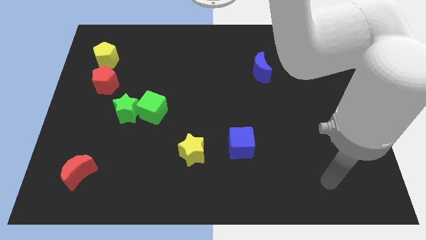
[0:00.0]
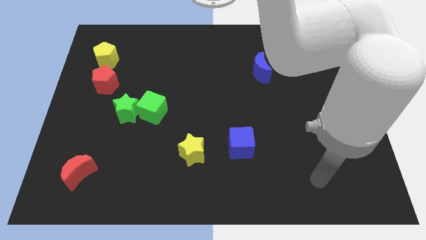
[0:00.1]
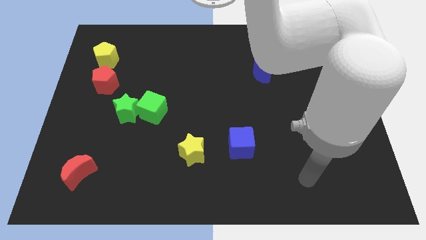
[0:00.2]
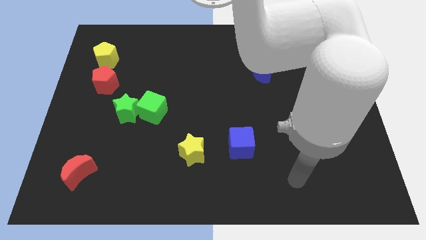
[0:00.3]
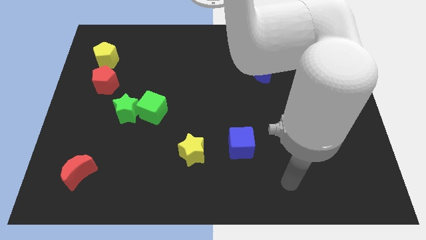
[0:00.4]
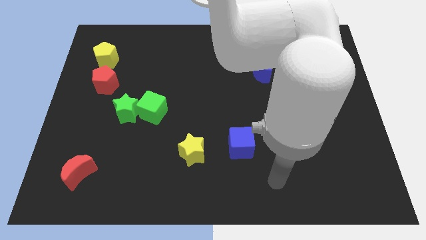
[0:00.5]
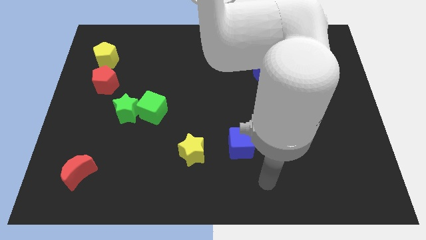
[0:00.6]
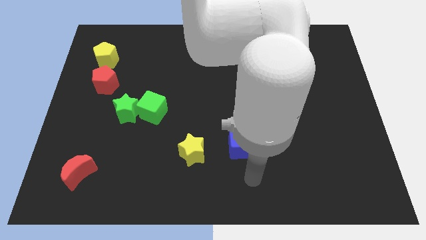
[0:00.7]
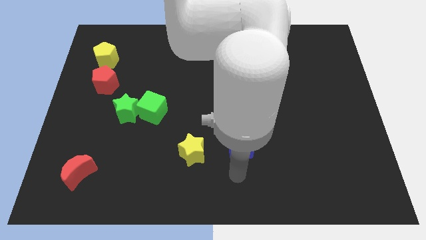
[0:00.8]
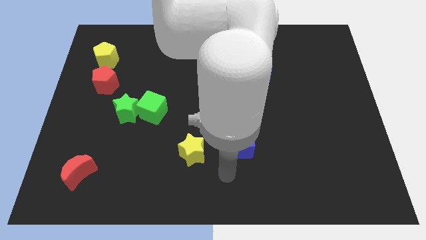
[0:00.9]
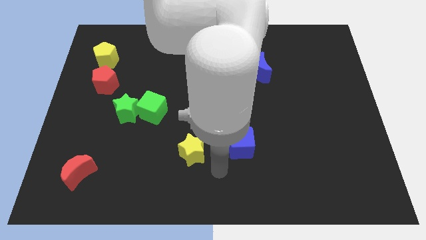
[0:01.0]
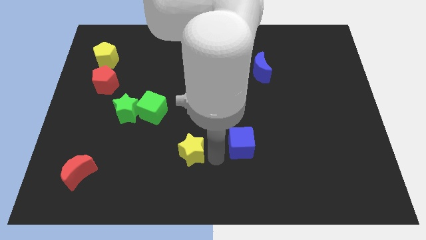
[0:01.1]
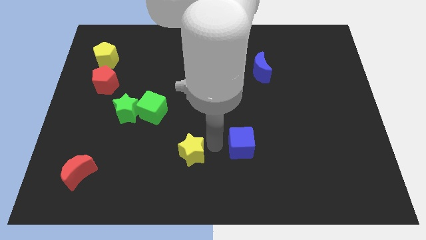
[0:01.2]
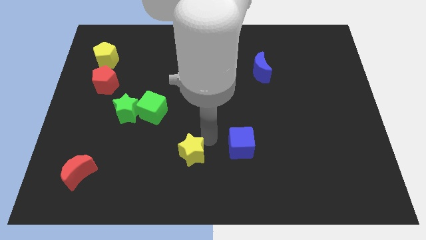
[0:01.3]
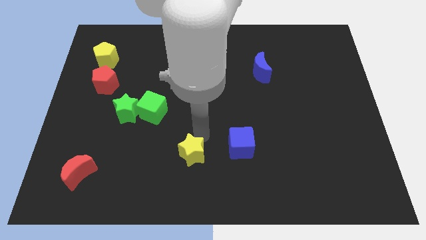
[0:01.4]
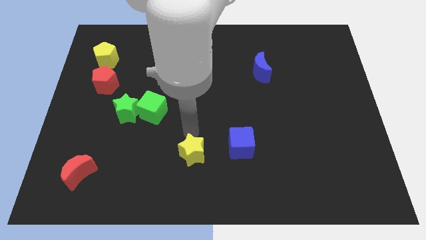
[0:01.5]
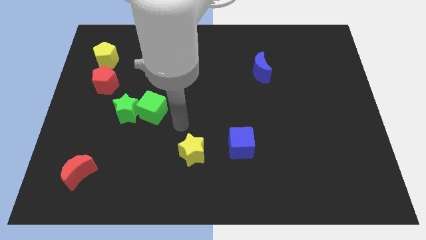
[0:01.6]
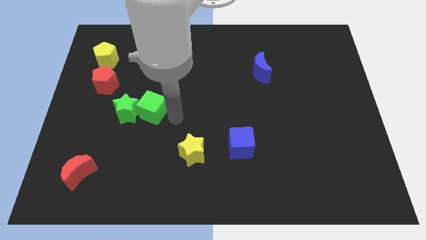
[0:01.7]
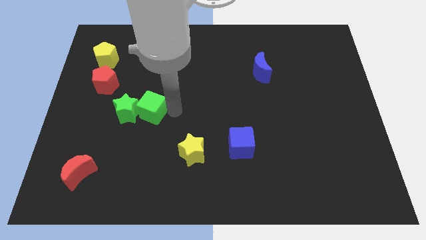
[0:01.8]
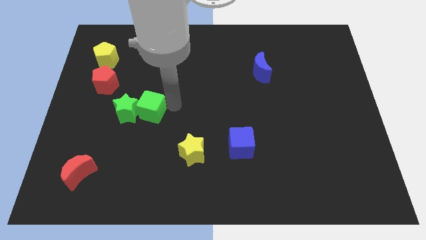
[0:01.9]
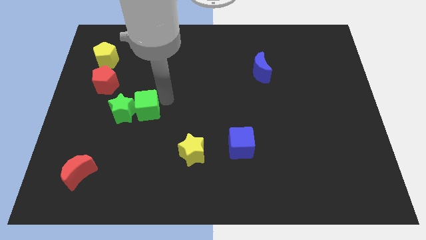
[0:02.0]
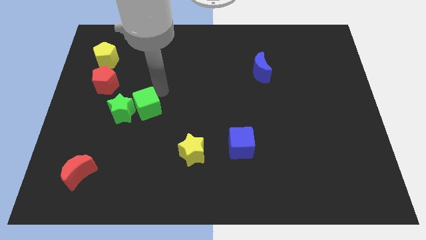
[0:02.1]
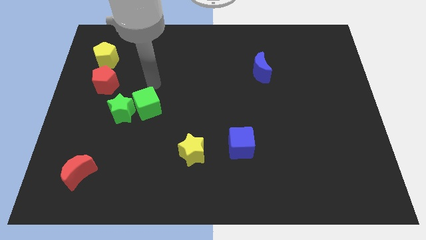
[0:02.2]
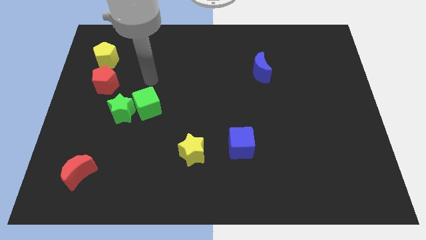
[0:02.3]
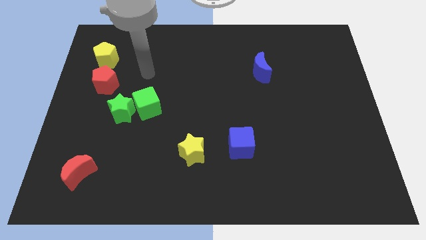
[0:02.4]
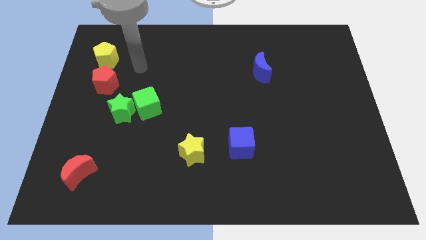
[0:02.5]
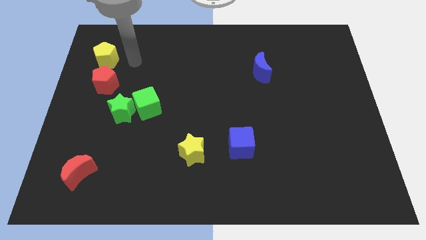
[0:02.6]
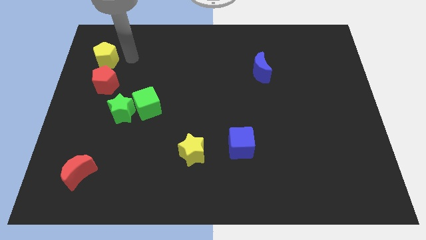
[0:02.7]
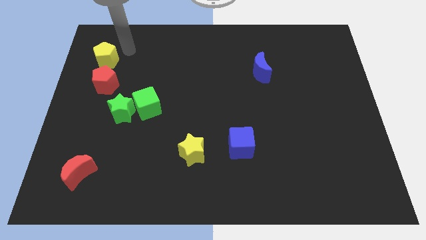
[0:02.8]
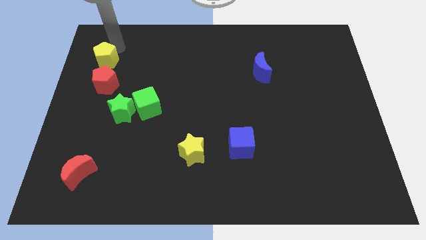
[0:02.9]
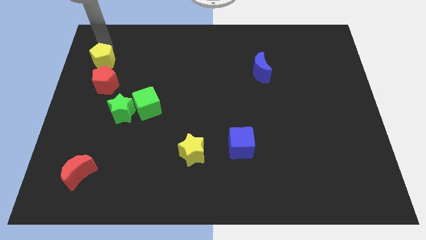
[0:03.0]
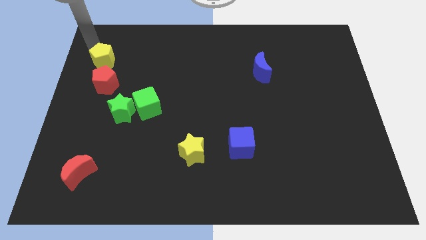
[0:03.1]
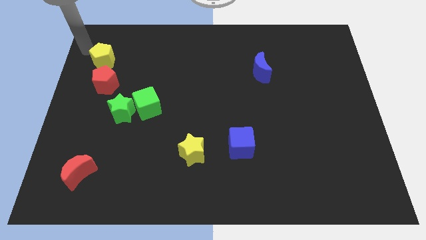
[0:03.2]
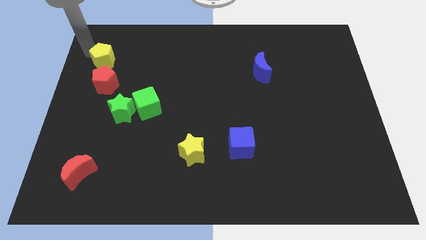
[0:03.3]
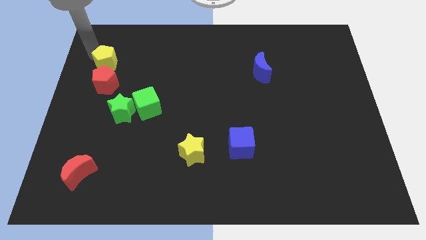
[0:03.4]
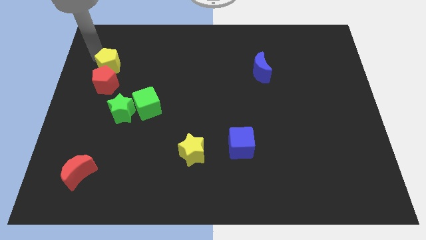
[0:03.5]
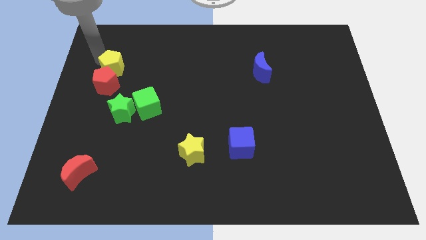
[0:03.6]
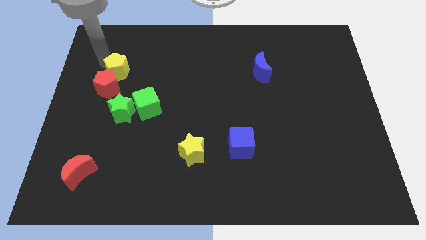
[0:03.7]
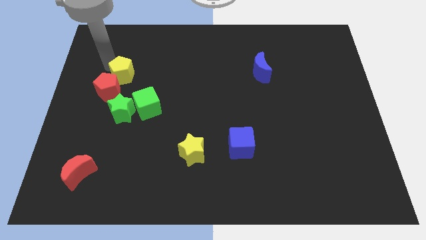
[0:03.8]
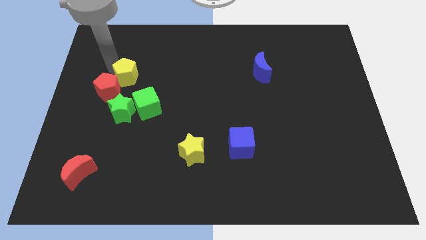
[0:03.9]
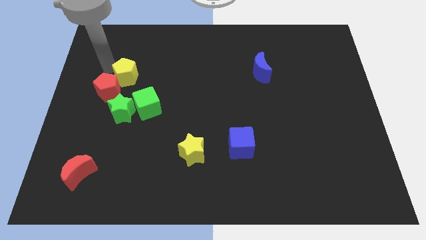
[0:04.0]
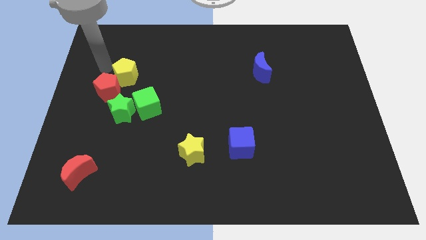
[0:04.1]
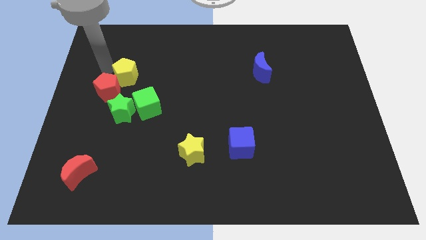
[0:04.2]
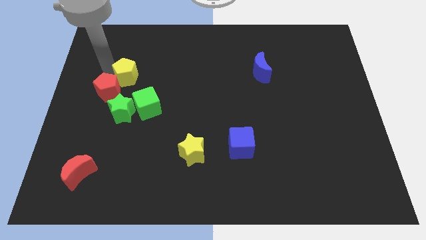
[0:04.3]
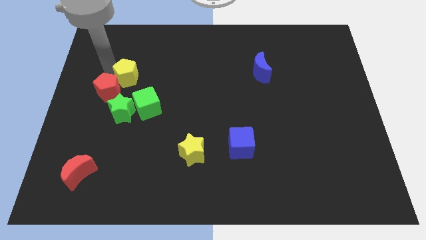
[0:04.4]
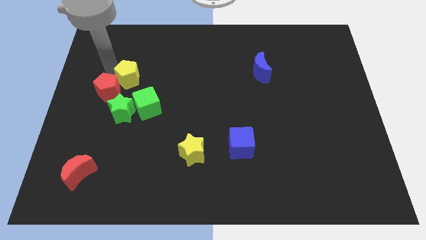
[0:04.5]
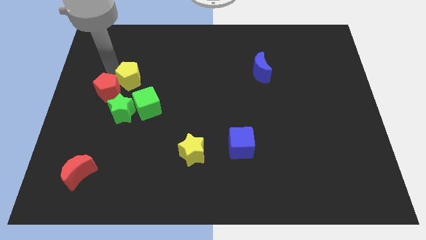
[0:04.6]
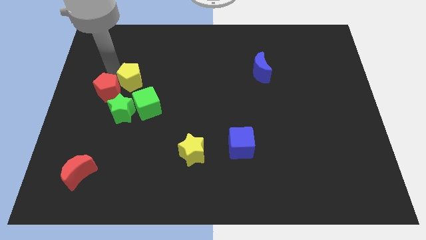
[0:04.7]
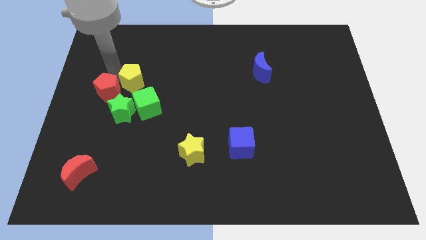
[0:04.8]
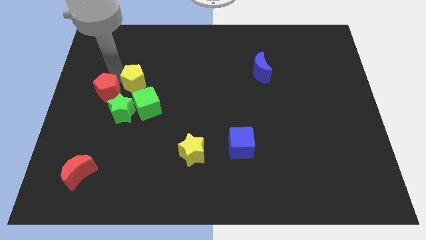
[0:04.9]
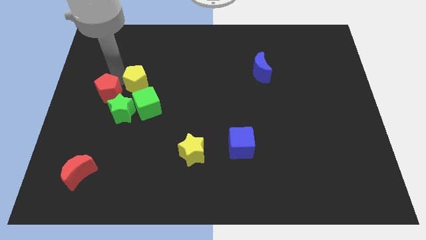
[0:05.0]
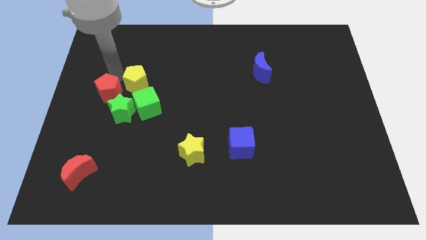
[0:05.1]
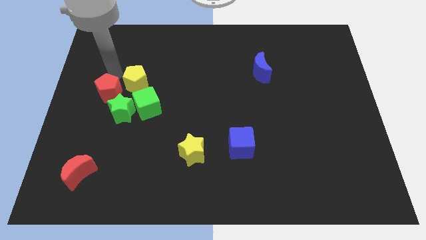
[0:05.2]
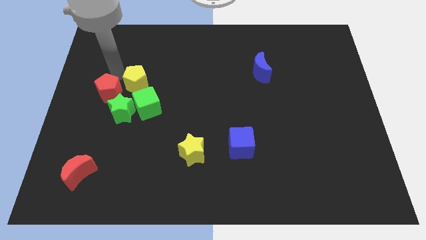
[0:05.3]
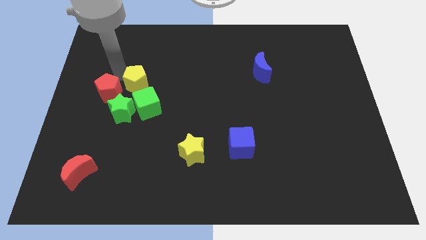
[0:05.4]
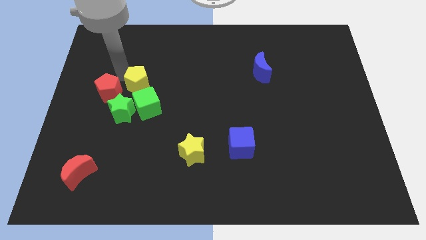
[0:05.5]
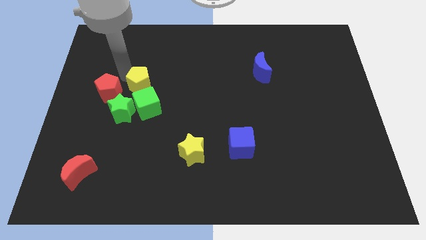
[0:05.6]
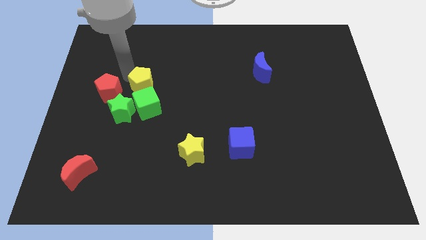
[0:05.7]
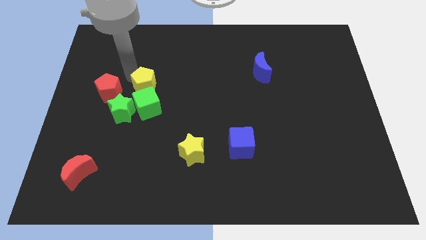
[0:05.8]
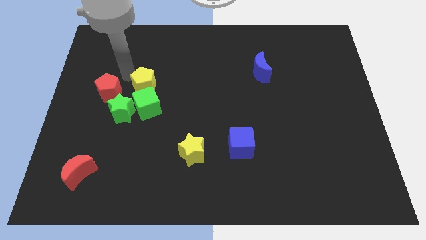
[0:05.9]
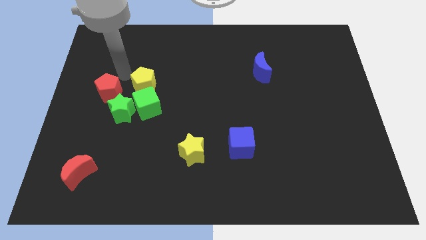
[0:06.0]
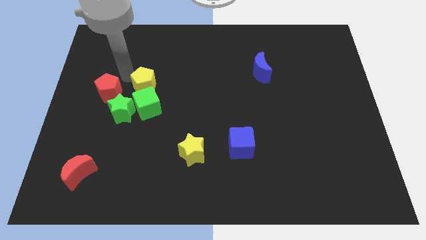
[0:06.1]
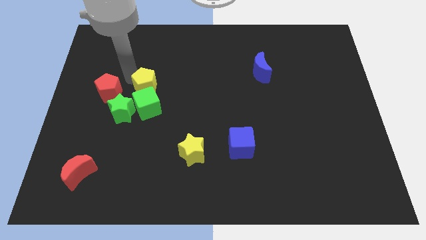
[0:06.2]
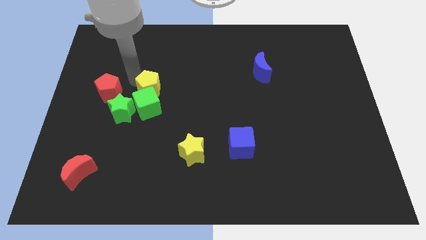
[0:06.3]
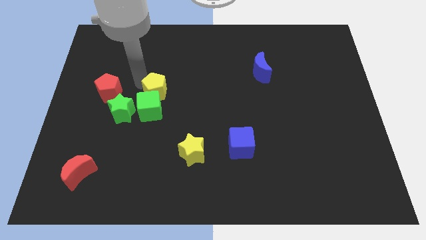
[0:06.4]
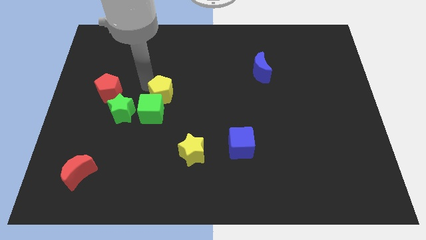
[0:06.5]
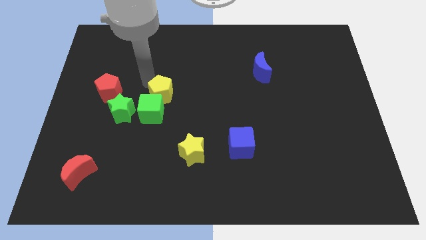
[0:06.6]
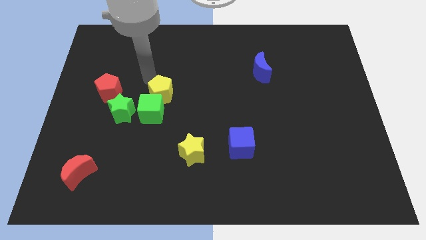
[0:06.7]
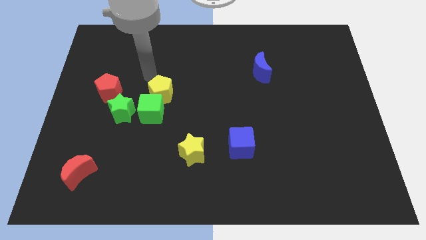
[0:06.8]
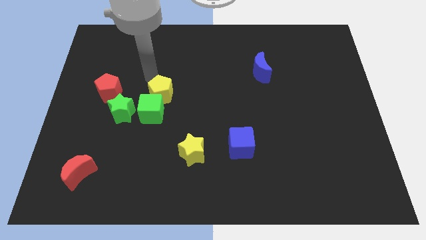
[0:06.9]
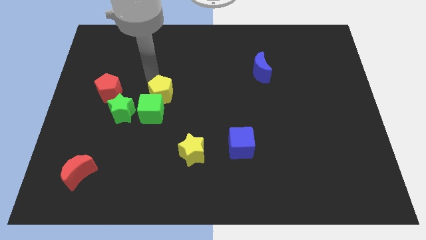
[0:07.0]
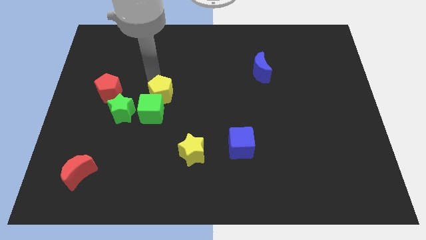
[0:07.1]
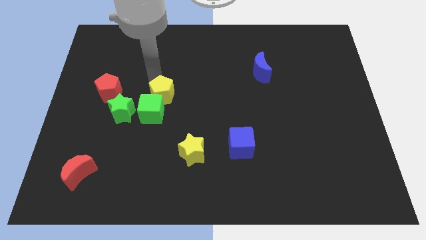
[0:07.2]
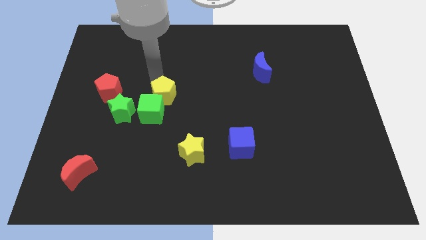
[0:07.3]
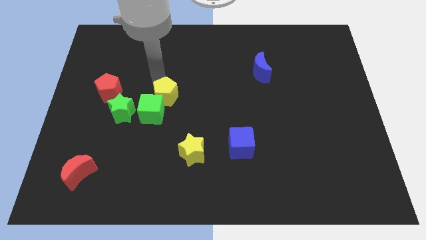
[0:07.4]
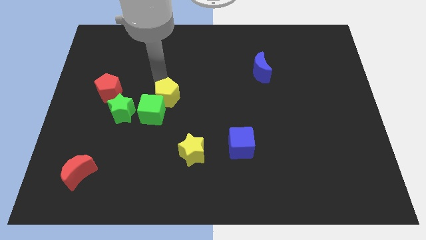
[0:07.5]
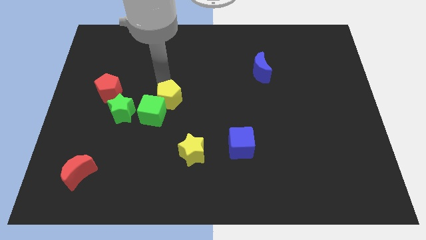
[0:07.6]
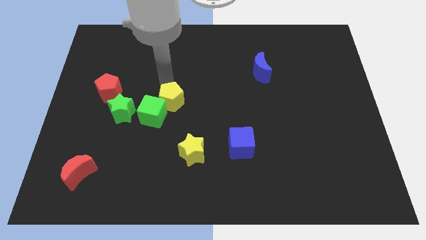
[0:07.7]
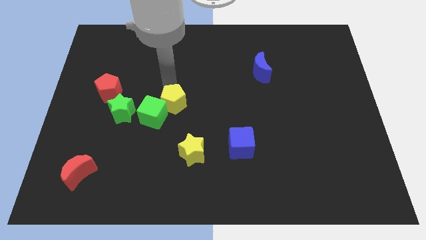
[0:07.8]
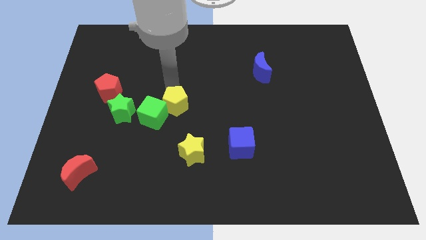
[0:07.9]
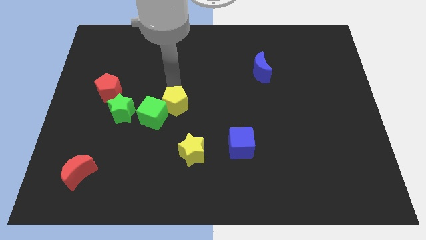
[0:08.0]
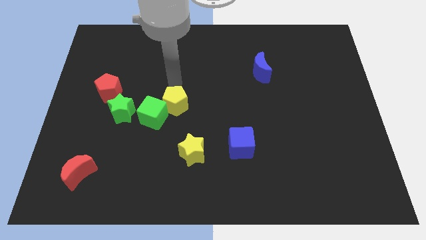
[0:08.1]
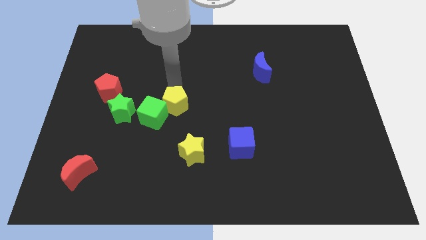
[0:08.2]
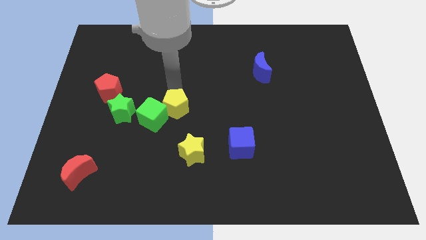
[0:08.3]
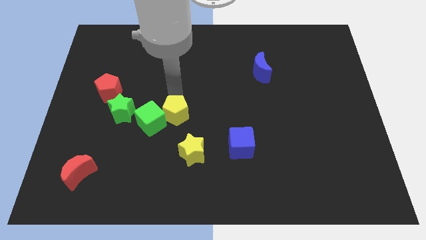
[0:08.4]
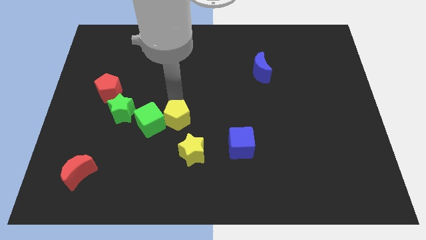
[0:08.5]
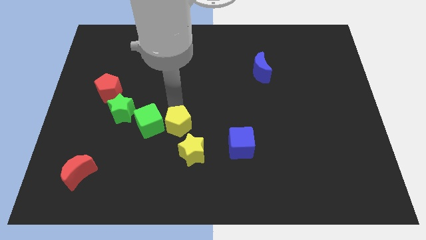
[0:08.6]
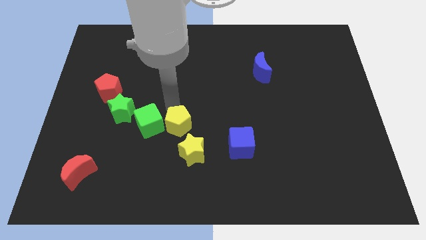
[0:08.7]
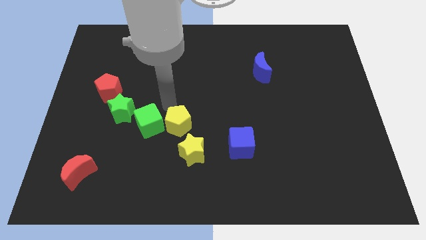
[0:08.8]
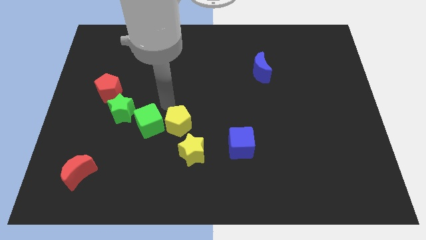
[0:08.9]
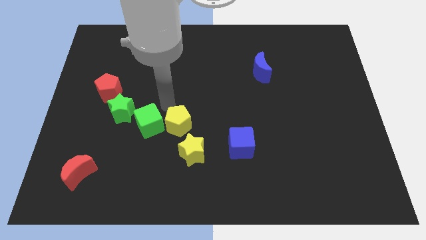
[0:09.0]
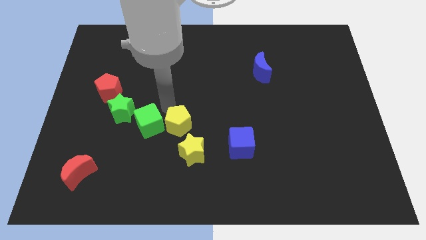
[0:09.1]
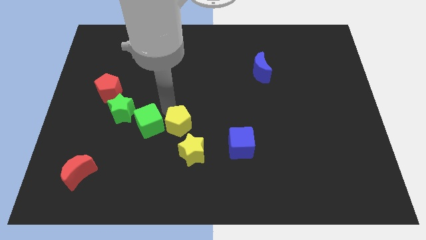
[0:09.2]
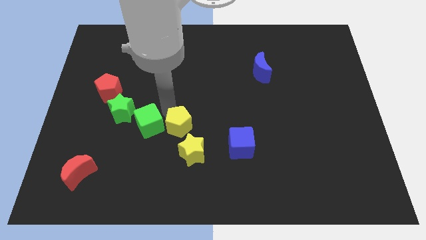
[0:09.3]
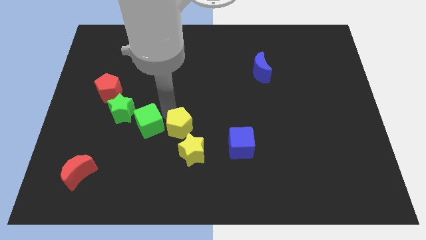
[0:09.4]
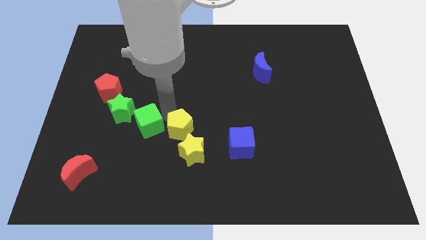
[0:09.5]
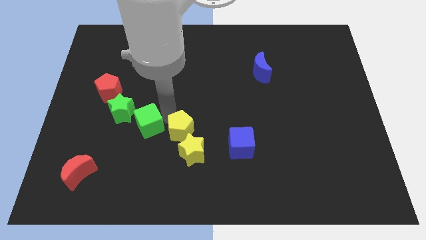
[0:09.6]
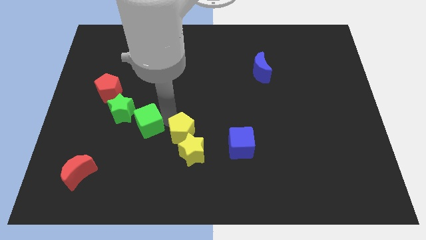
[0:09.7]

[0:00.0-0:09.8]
put the yellow pentagon towards the yellow star
